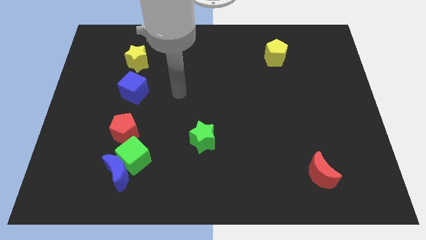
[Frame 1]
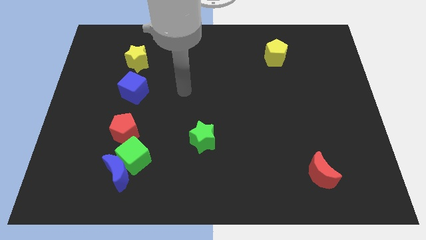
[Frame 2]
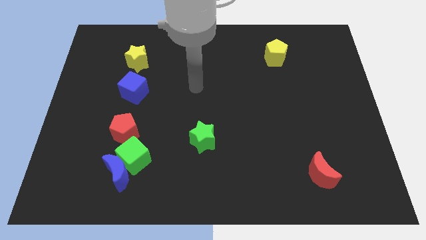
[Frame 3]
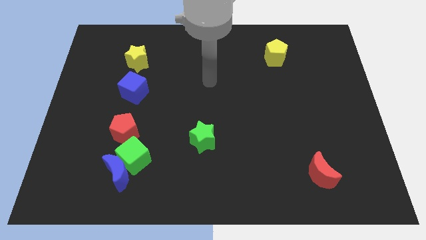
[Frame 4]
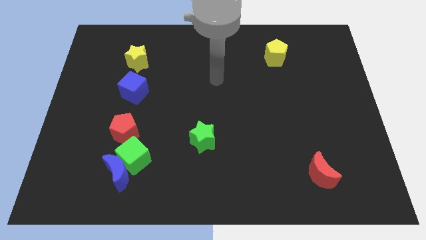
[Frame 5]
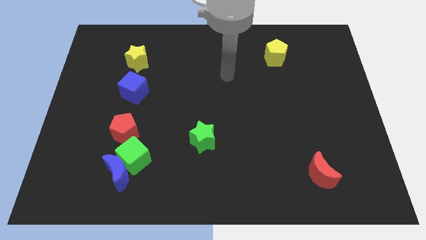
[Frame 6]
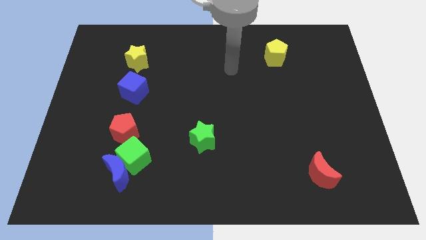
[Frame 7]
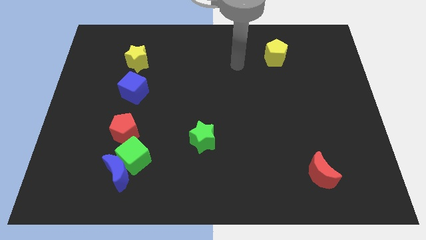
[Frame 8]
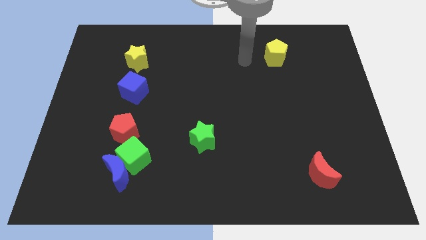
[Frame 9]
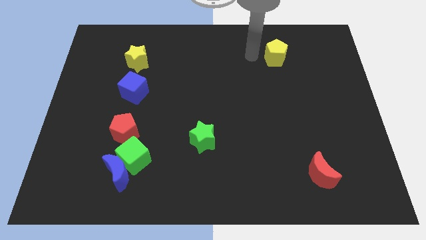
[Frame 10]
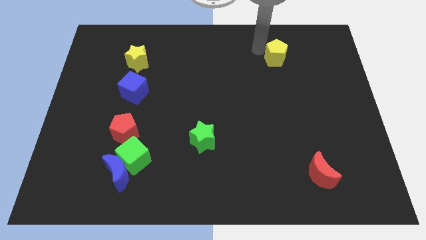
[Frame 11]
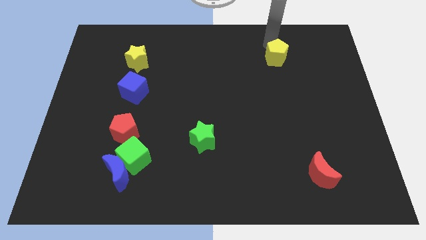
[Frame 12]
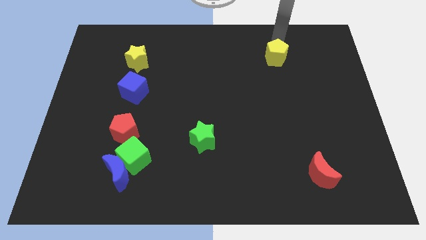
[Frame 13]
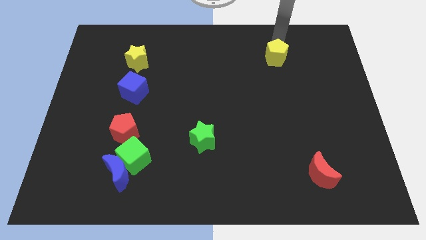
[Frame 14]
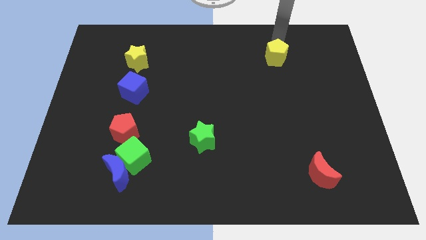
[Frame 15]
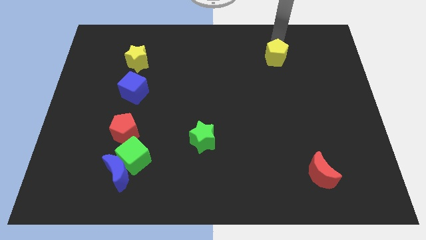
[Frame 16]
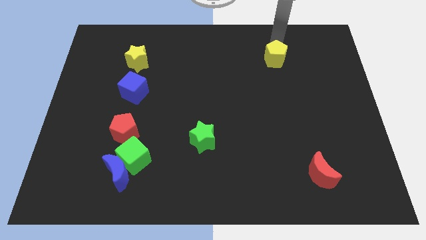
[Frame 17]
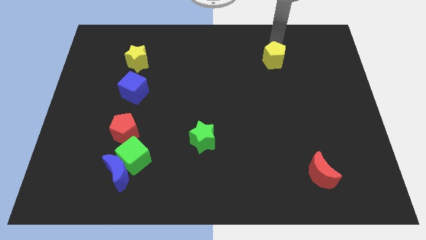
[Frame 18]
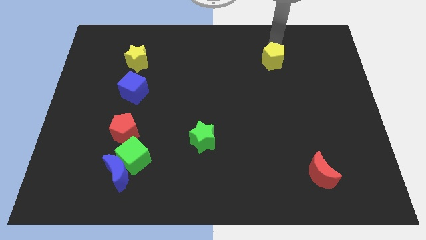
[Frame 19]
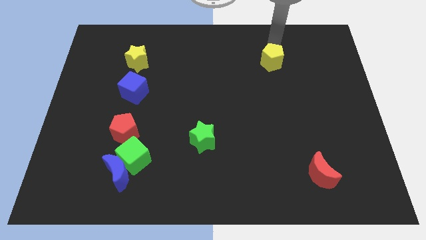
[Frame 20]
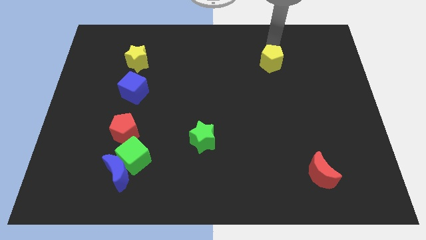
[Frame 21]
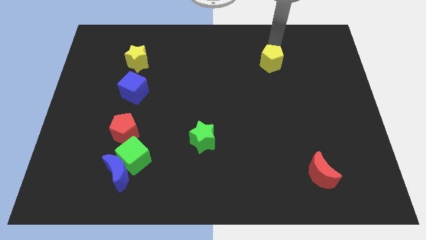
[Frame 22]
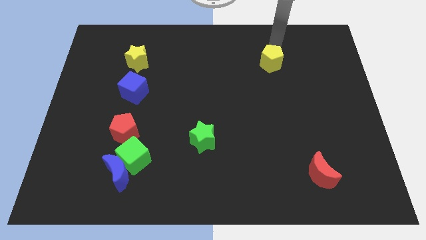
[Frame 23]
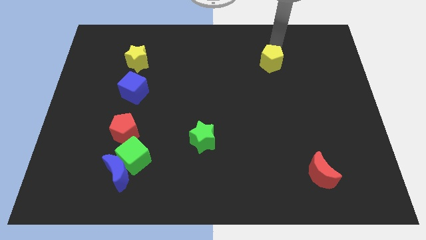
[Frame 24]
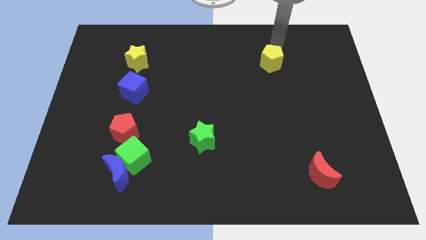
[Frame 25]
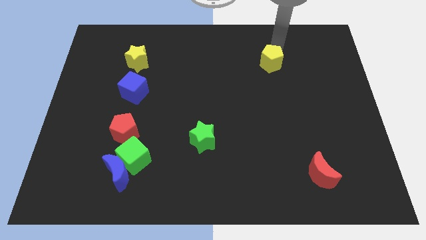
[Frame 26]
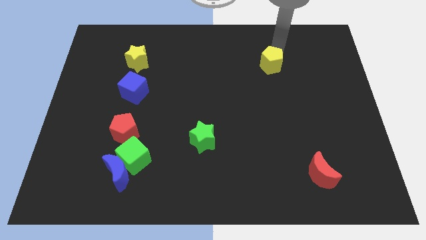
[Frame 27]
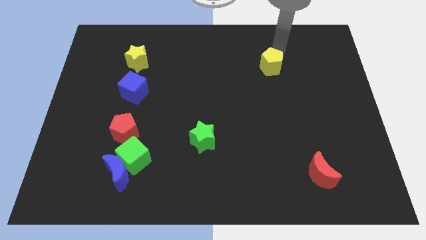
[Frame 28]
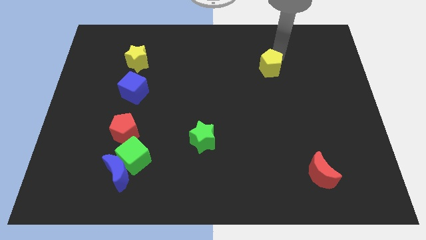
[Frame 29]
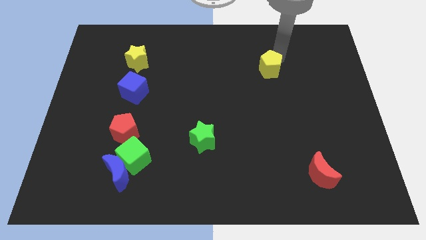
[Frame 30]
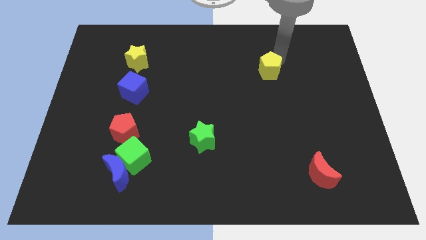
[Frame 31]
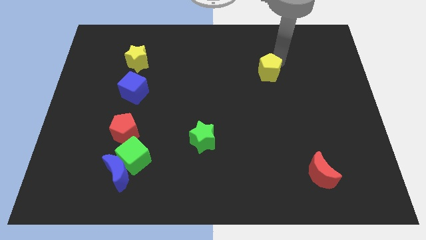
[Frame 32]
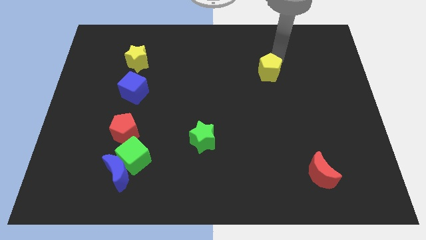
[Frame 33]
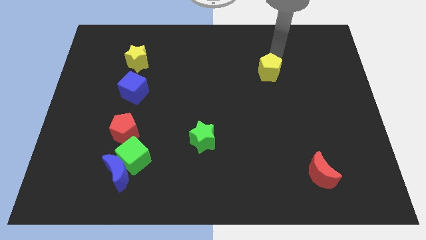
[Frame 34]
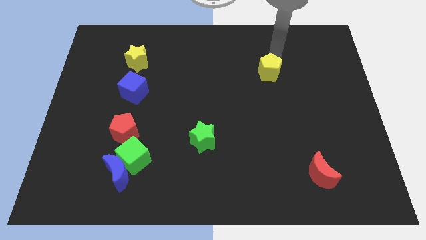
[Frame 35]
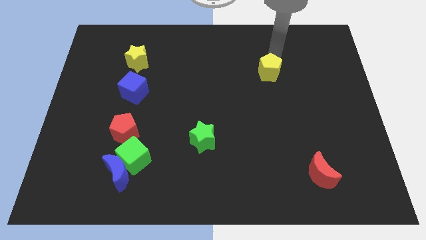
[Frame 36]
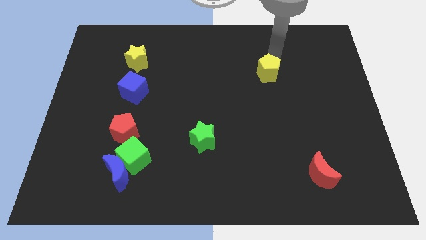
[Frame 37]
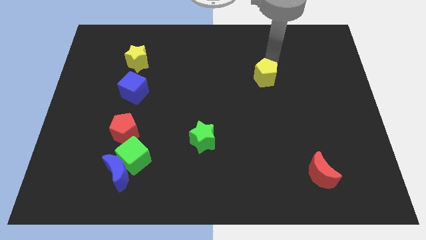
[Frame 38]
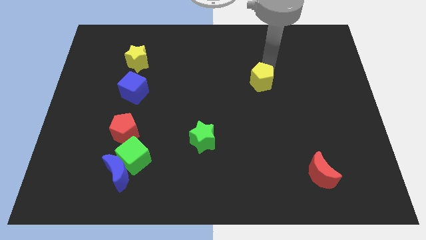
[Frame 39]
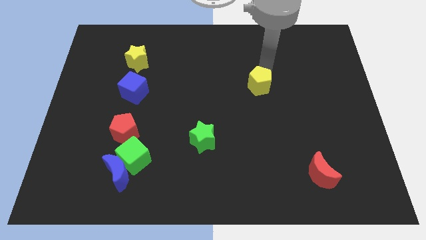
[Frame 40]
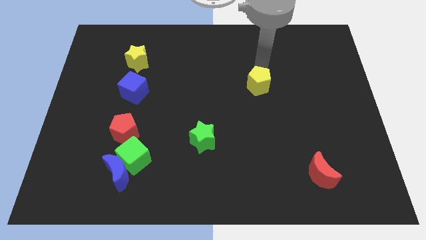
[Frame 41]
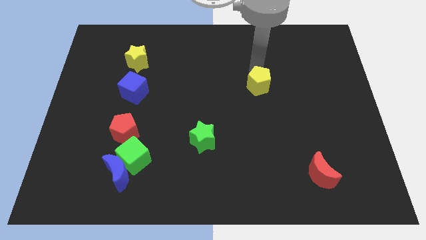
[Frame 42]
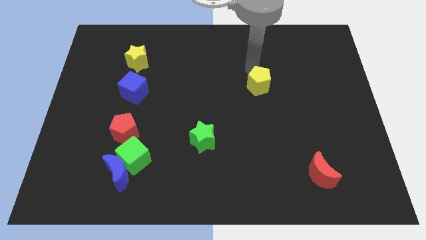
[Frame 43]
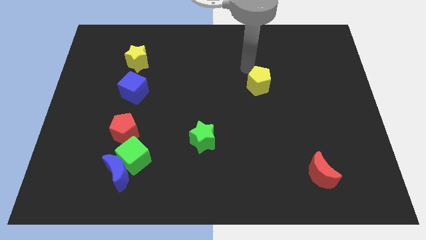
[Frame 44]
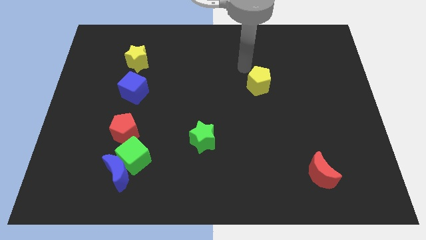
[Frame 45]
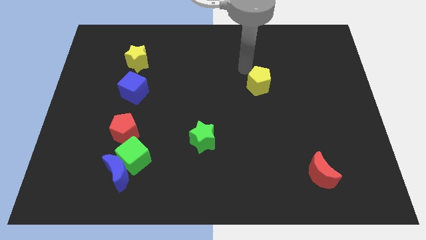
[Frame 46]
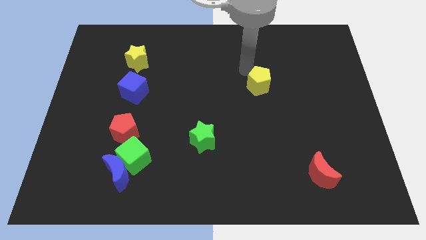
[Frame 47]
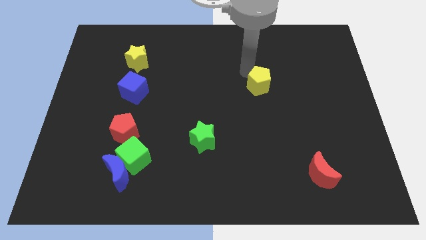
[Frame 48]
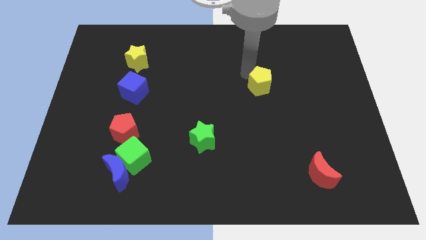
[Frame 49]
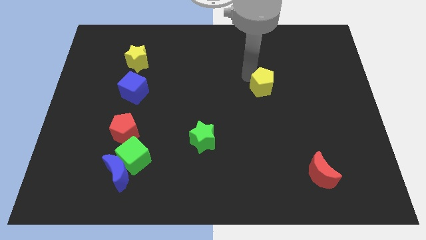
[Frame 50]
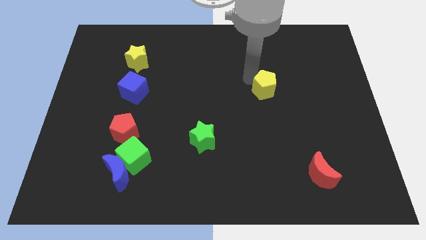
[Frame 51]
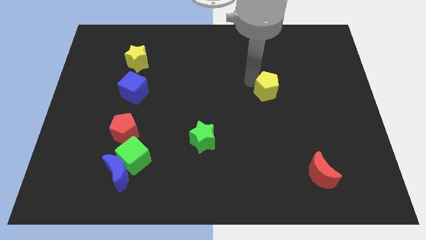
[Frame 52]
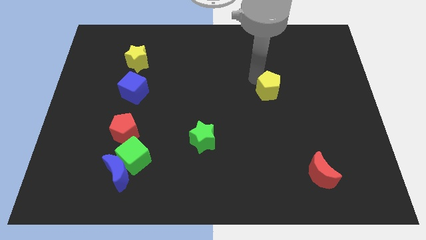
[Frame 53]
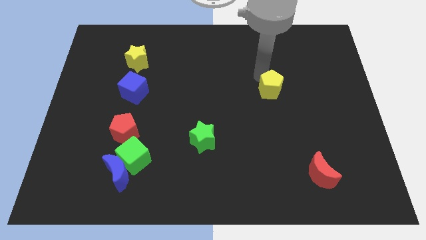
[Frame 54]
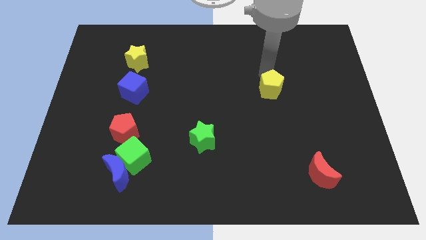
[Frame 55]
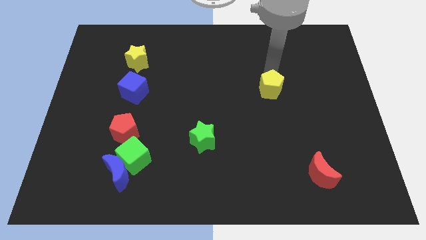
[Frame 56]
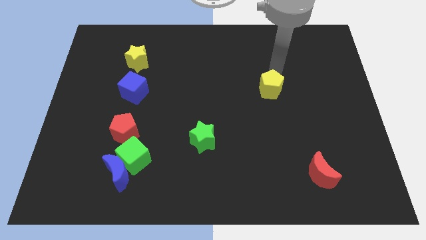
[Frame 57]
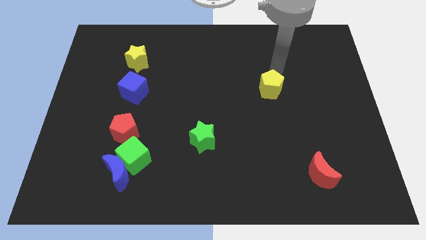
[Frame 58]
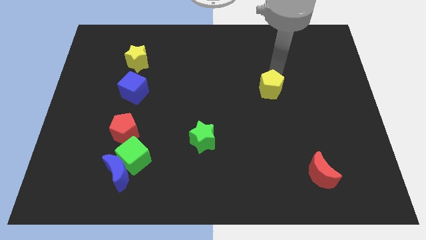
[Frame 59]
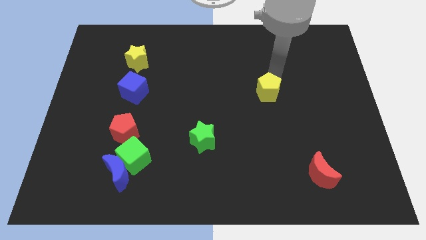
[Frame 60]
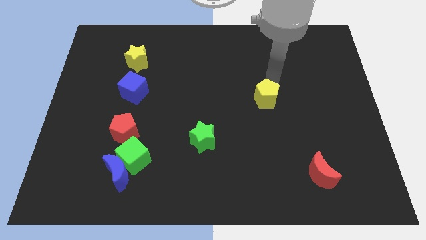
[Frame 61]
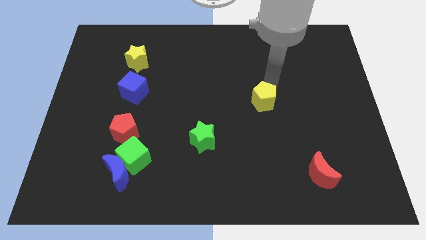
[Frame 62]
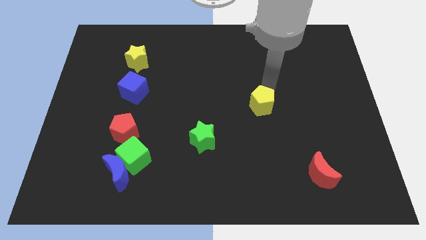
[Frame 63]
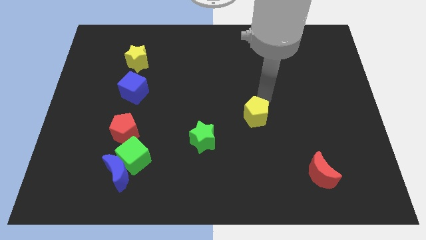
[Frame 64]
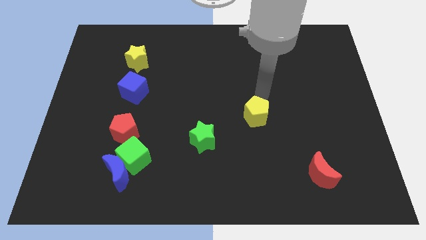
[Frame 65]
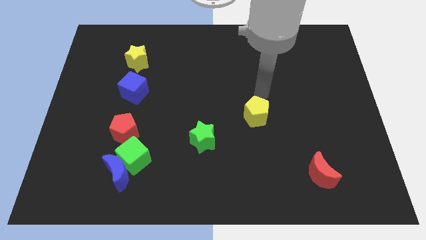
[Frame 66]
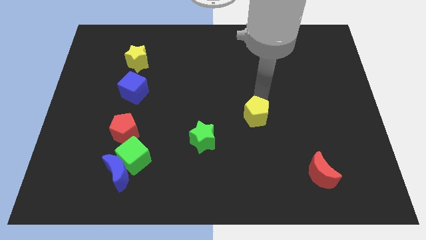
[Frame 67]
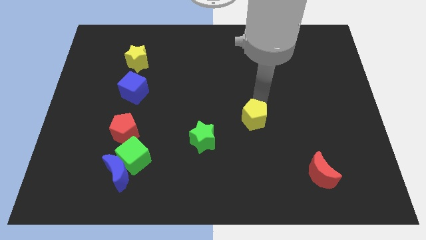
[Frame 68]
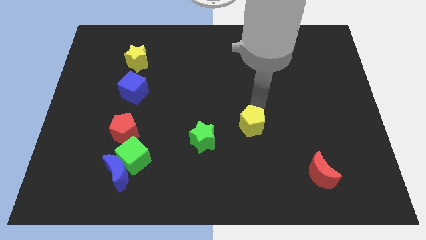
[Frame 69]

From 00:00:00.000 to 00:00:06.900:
move the yellow pentagon to the right of the green star

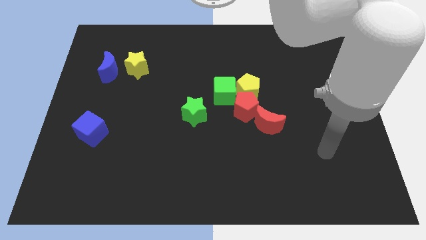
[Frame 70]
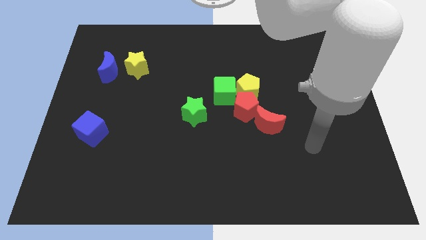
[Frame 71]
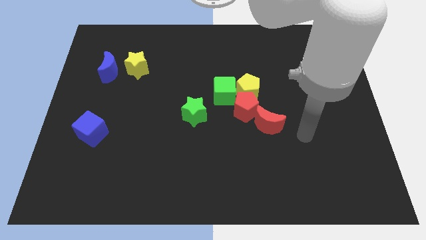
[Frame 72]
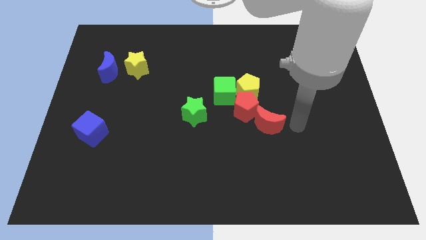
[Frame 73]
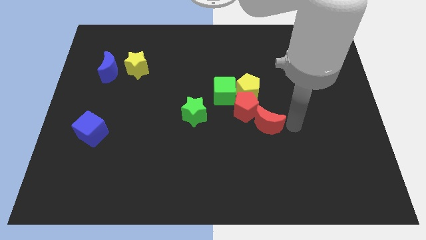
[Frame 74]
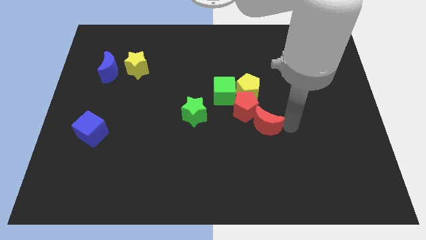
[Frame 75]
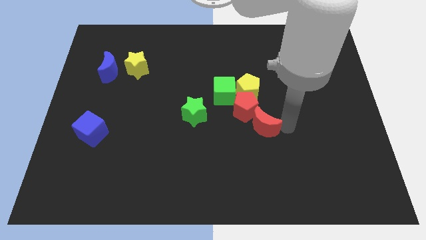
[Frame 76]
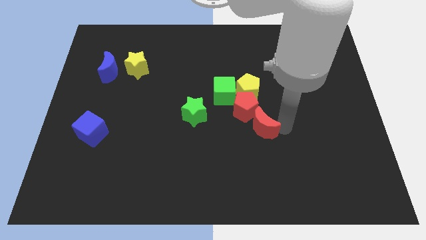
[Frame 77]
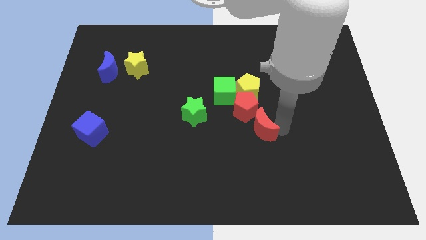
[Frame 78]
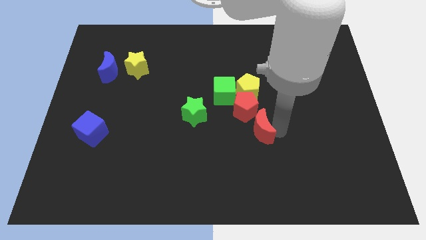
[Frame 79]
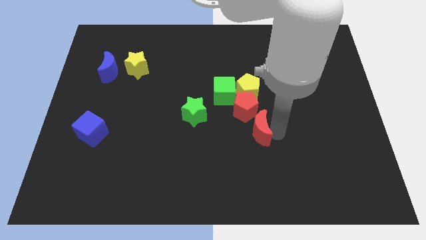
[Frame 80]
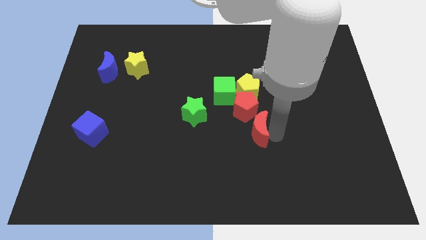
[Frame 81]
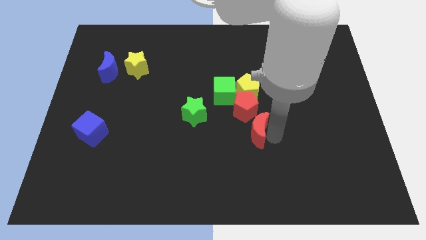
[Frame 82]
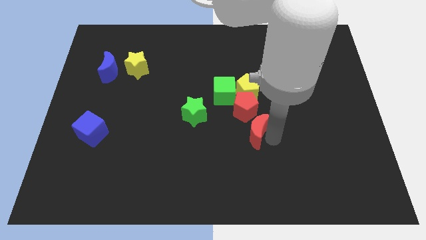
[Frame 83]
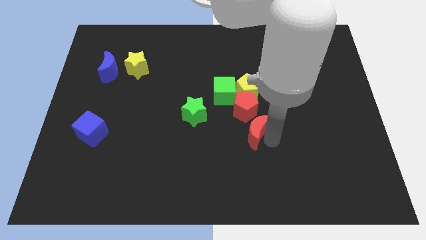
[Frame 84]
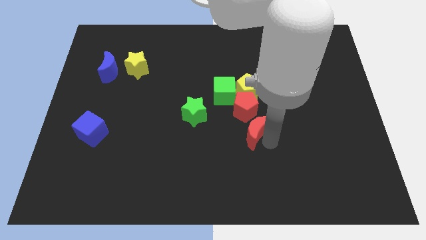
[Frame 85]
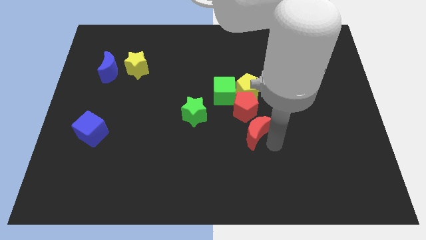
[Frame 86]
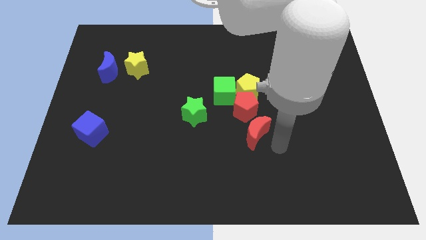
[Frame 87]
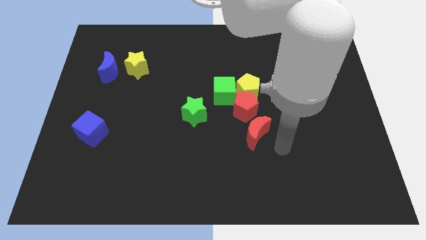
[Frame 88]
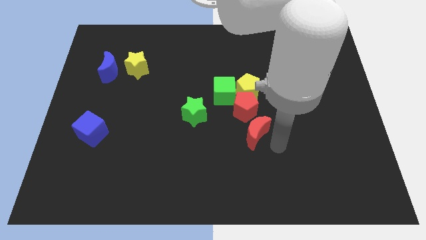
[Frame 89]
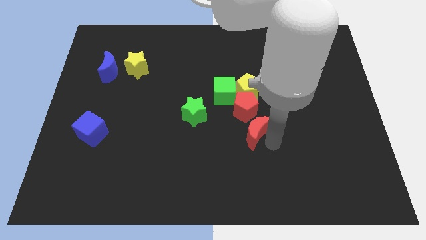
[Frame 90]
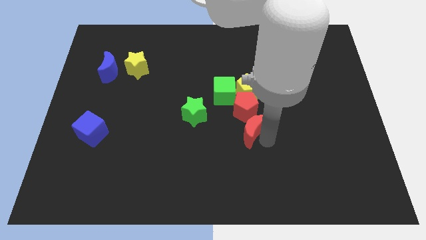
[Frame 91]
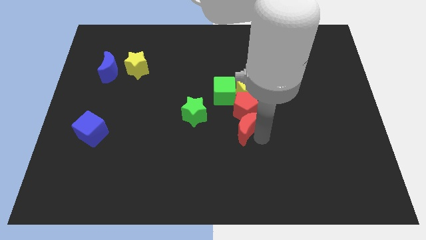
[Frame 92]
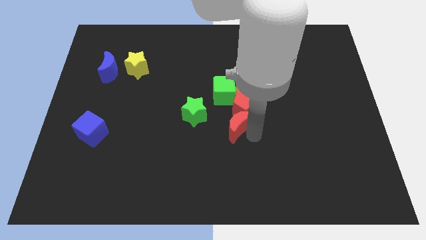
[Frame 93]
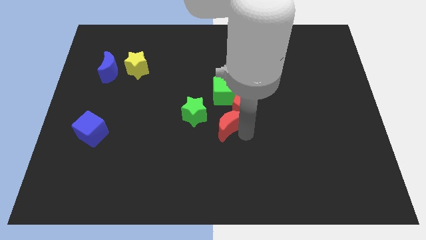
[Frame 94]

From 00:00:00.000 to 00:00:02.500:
push the red moon to the bottom left of the yellow pentagon
